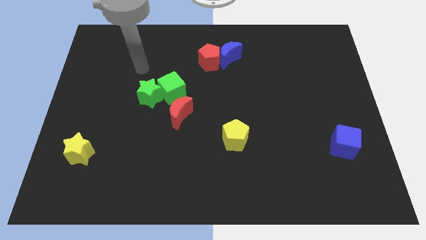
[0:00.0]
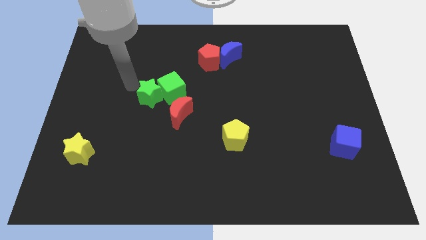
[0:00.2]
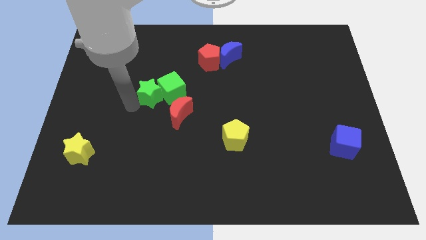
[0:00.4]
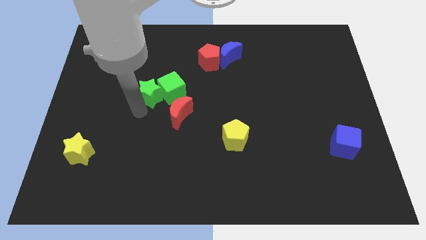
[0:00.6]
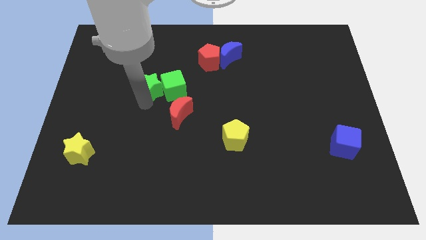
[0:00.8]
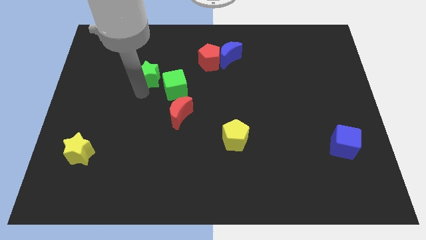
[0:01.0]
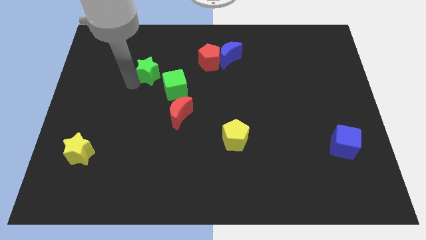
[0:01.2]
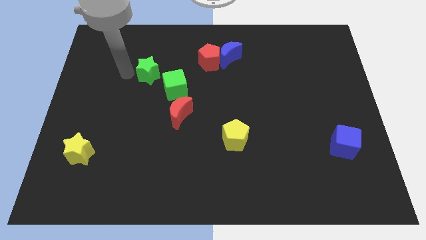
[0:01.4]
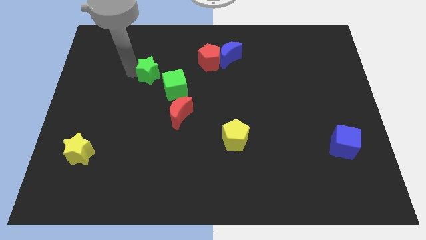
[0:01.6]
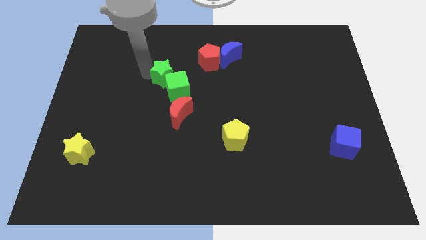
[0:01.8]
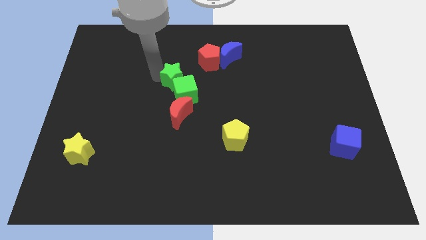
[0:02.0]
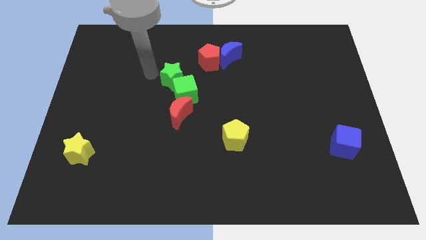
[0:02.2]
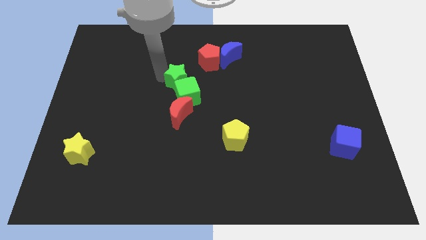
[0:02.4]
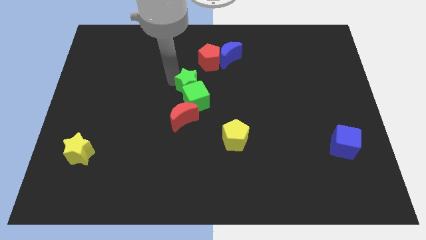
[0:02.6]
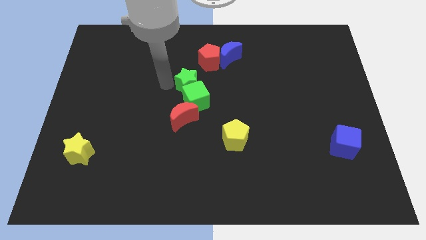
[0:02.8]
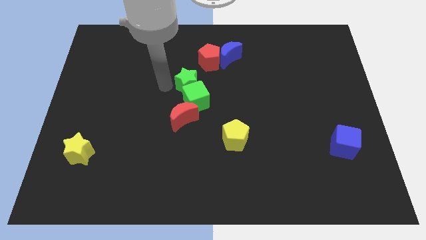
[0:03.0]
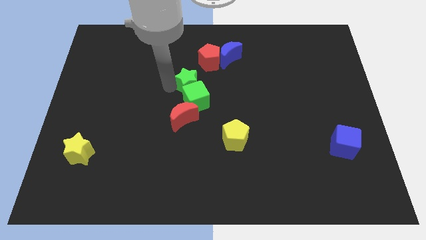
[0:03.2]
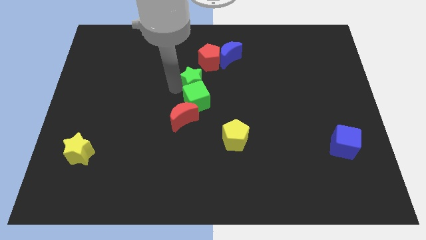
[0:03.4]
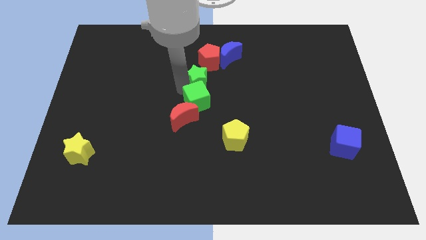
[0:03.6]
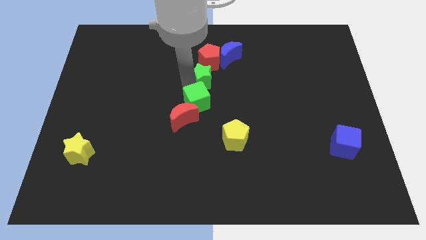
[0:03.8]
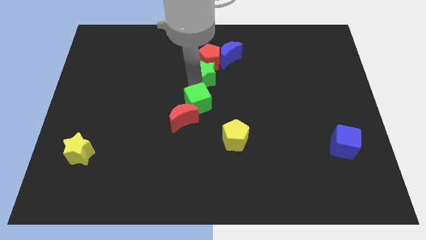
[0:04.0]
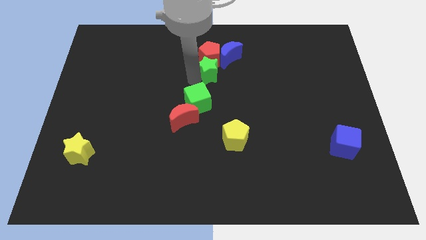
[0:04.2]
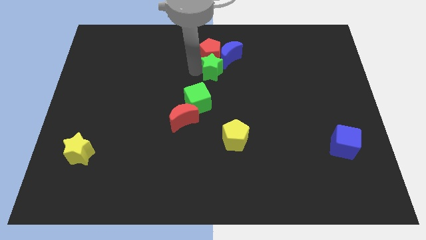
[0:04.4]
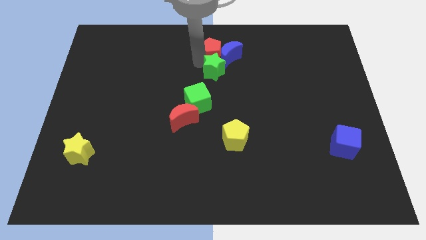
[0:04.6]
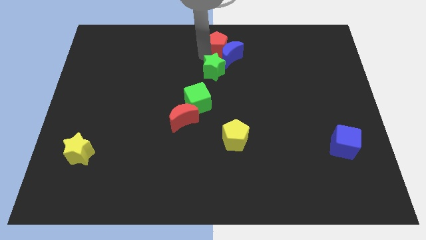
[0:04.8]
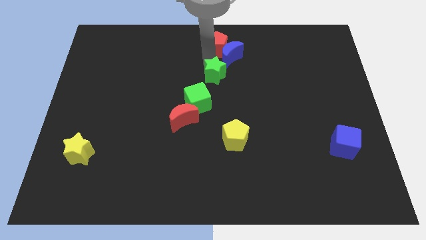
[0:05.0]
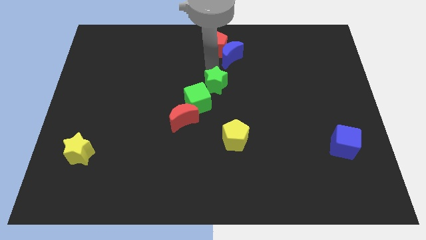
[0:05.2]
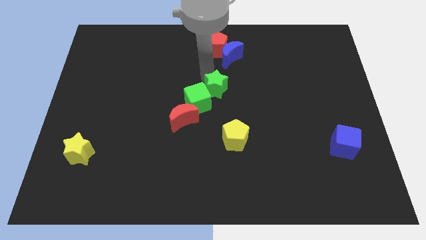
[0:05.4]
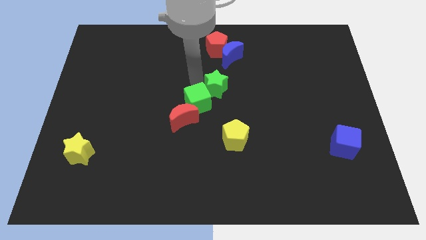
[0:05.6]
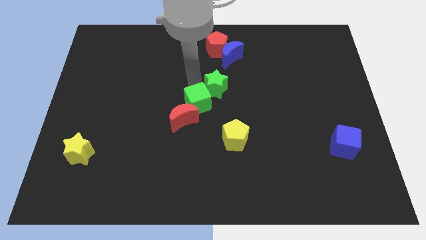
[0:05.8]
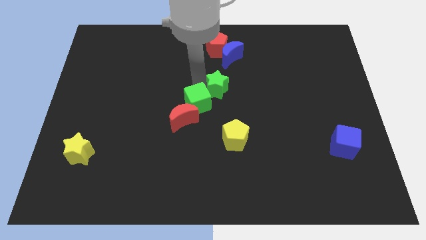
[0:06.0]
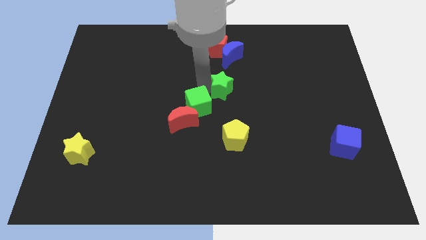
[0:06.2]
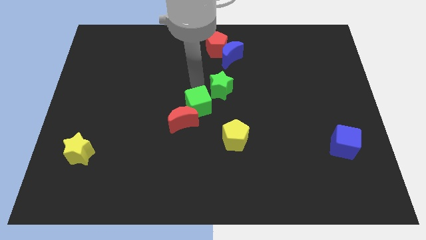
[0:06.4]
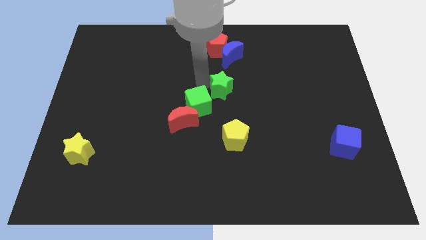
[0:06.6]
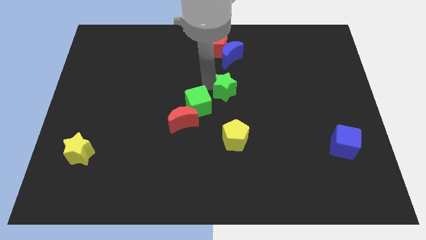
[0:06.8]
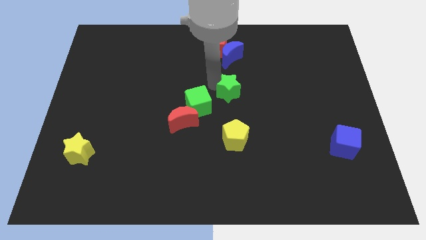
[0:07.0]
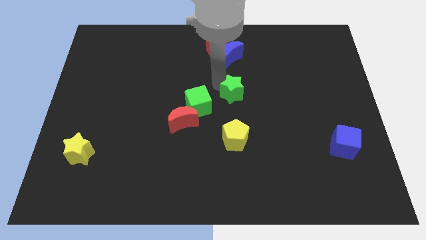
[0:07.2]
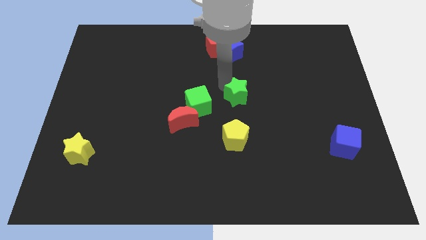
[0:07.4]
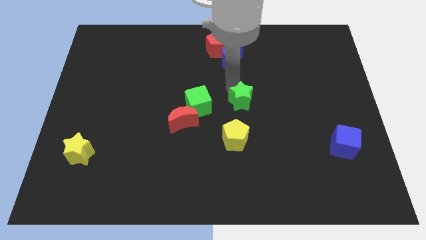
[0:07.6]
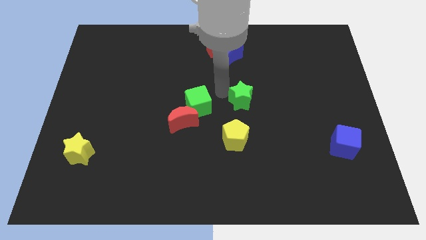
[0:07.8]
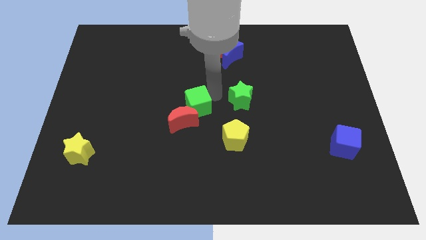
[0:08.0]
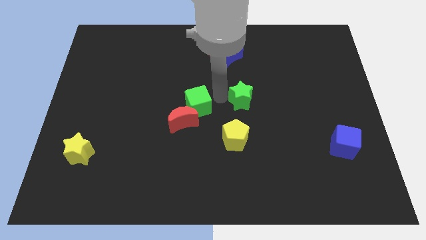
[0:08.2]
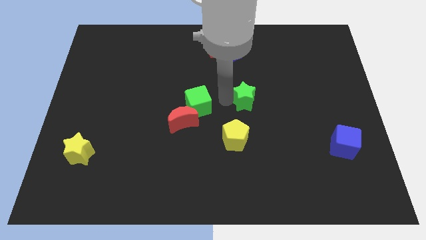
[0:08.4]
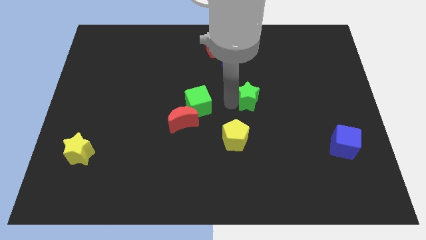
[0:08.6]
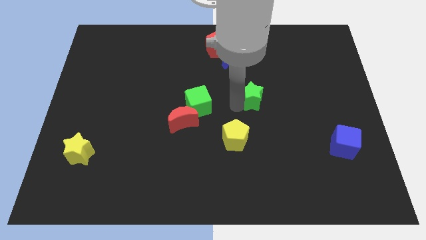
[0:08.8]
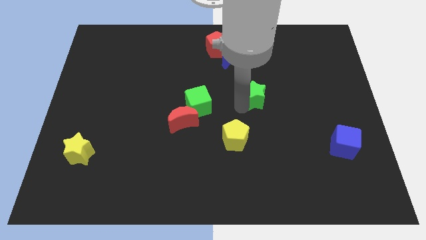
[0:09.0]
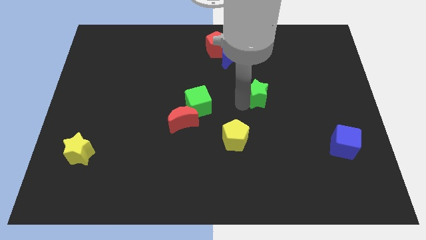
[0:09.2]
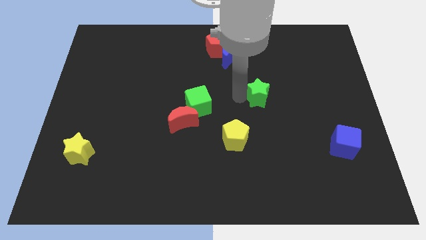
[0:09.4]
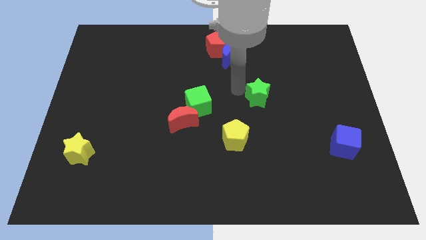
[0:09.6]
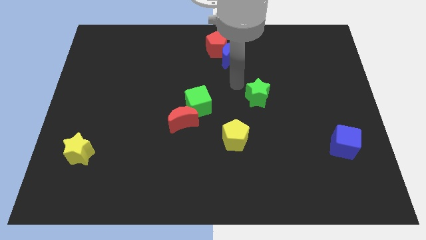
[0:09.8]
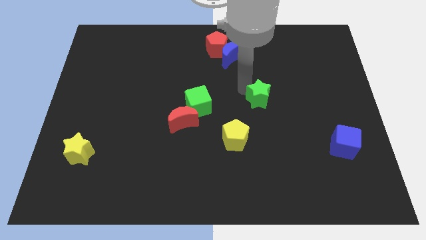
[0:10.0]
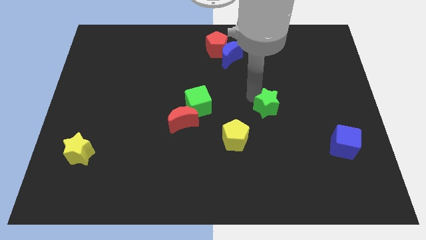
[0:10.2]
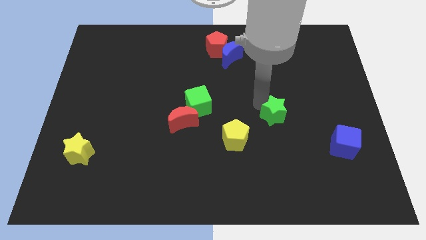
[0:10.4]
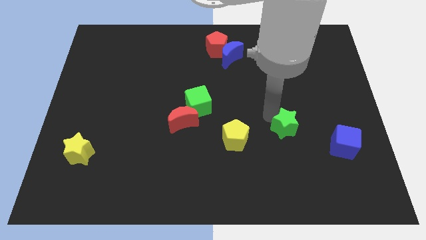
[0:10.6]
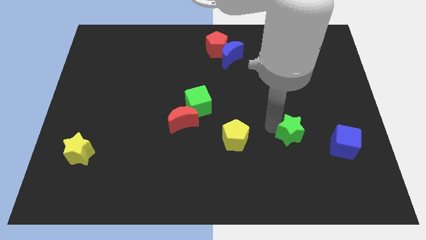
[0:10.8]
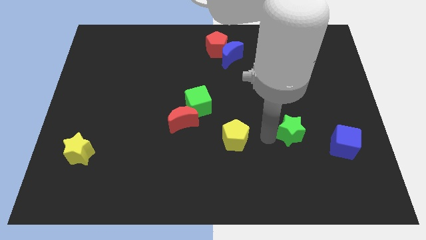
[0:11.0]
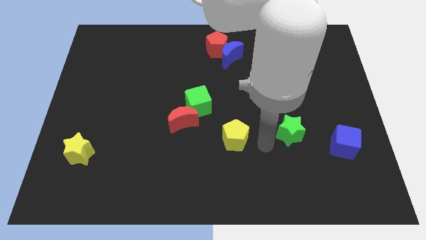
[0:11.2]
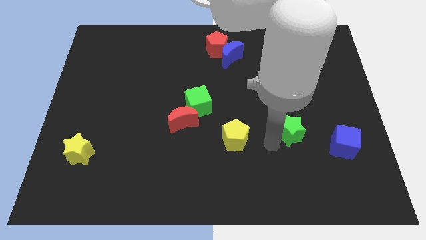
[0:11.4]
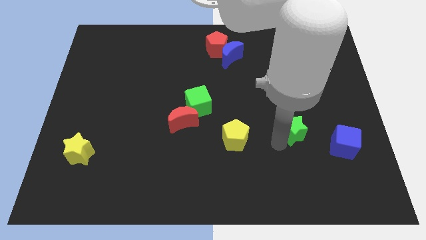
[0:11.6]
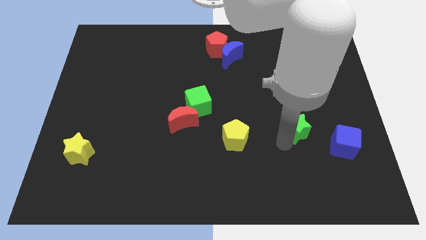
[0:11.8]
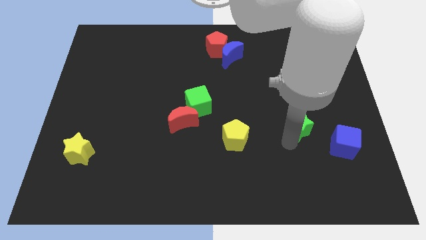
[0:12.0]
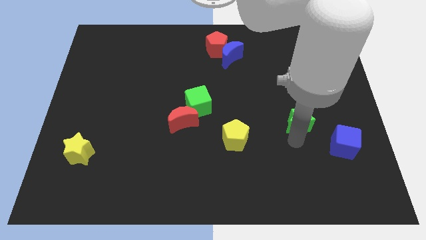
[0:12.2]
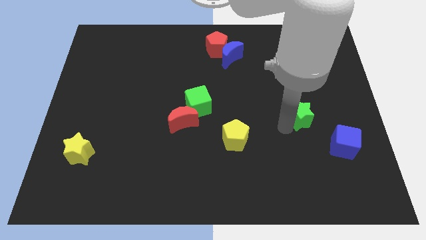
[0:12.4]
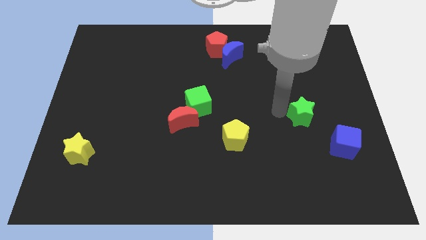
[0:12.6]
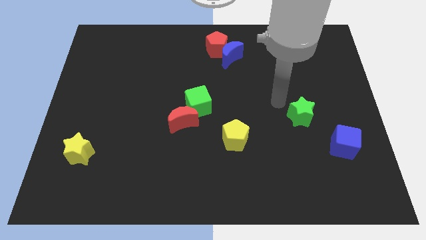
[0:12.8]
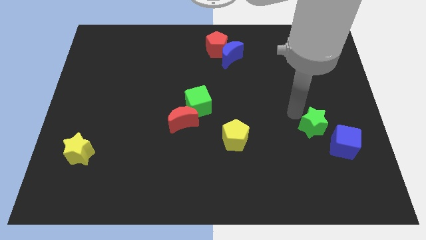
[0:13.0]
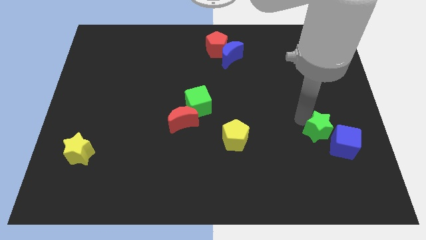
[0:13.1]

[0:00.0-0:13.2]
put the green star close to the blue cube
